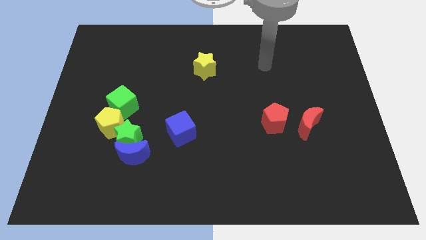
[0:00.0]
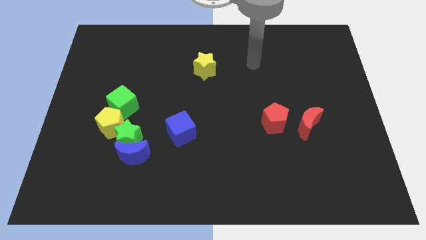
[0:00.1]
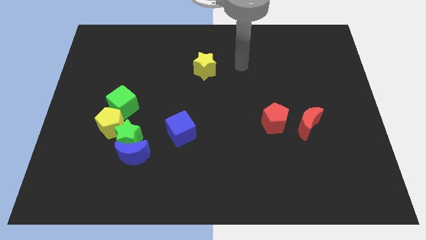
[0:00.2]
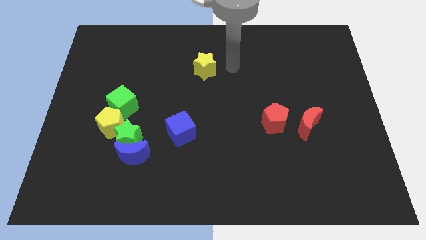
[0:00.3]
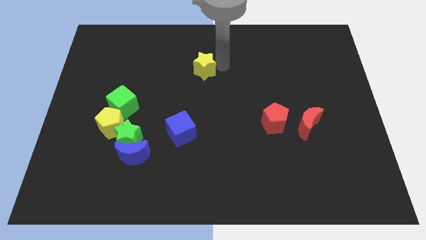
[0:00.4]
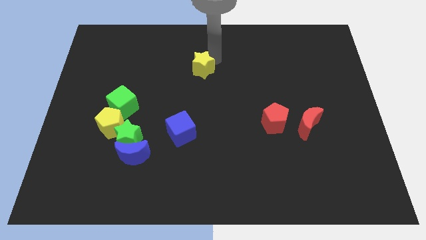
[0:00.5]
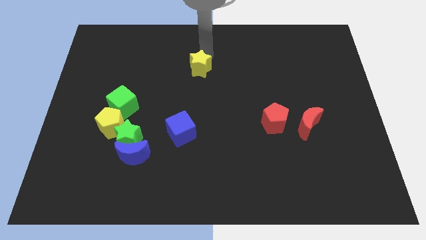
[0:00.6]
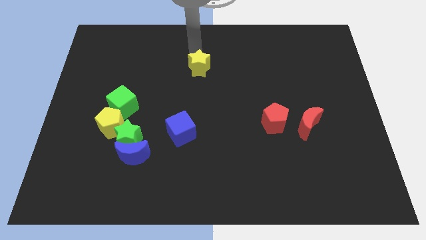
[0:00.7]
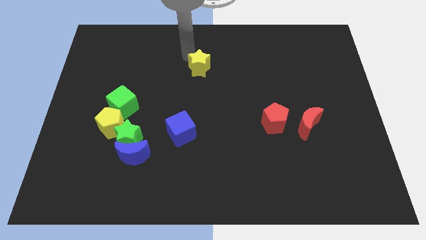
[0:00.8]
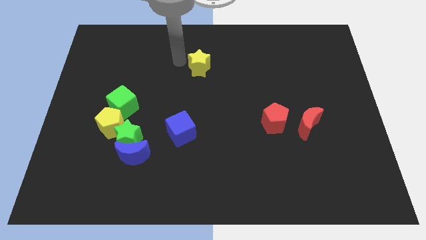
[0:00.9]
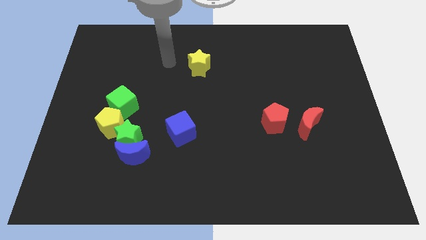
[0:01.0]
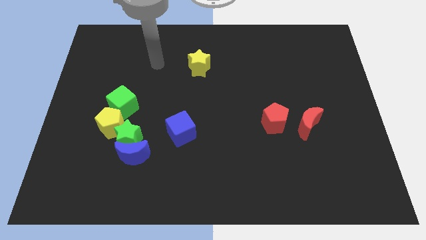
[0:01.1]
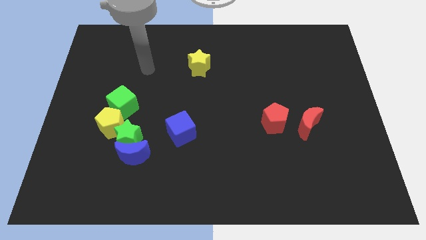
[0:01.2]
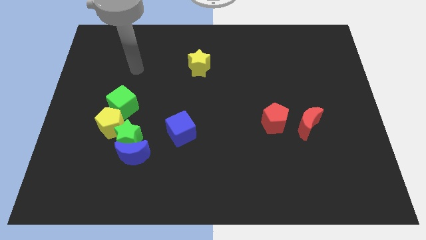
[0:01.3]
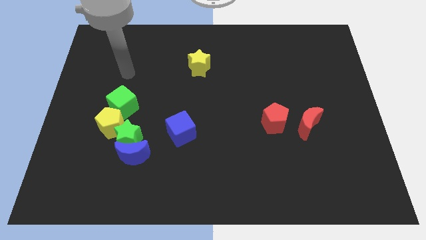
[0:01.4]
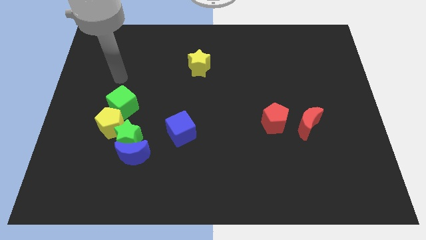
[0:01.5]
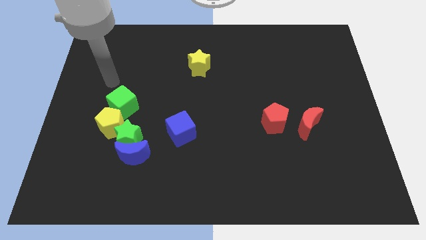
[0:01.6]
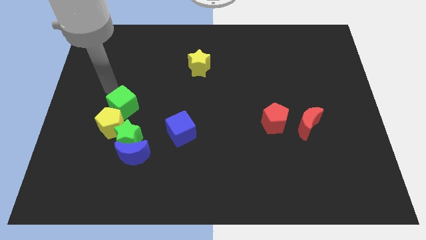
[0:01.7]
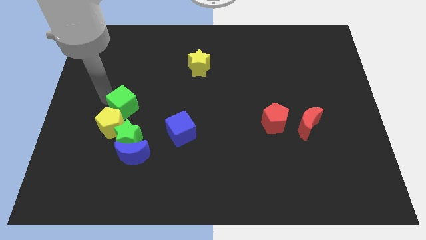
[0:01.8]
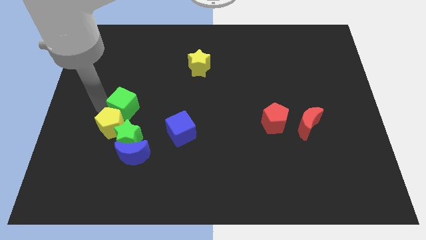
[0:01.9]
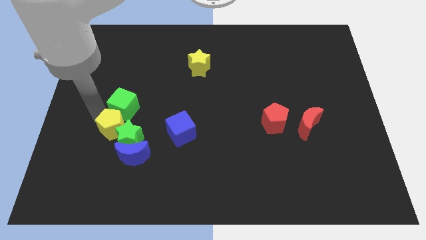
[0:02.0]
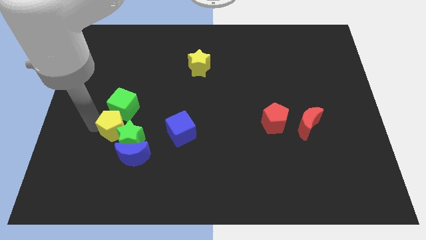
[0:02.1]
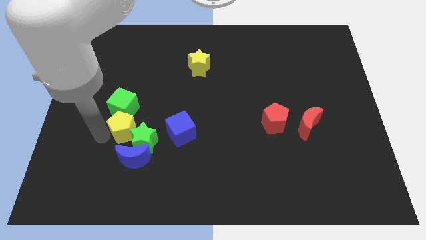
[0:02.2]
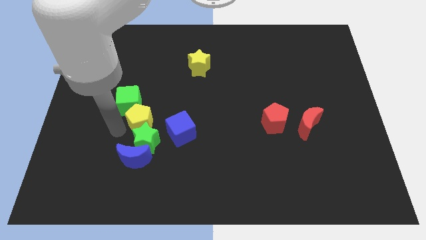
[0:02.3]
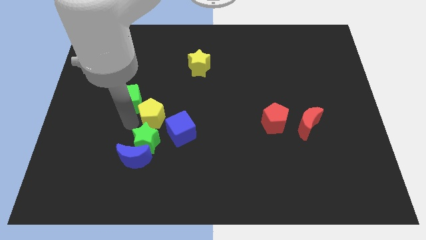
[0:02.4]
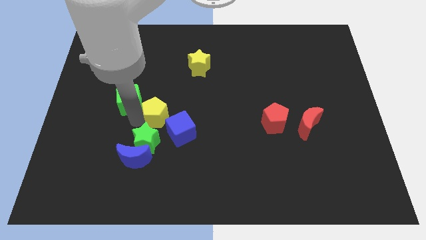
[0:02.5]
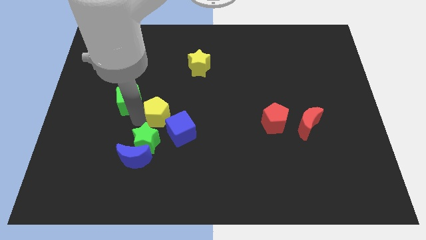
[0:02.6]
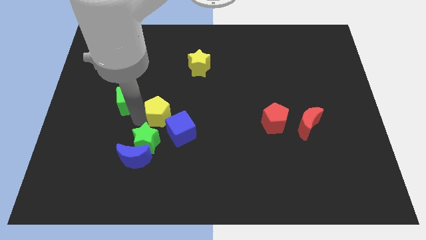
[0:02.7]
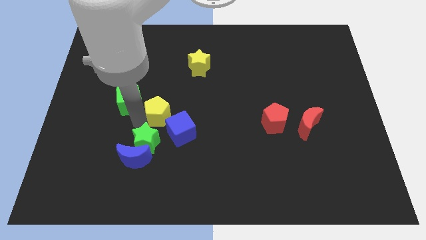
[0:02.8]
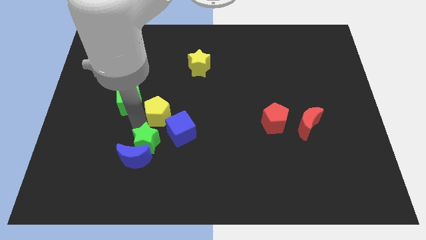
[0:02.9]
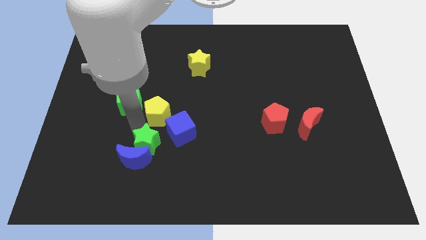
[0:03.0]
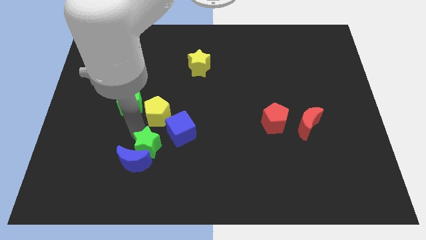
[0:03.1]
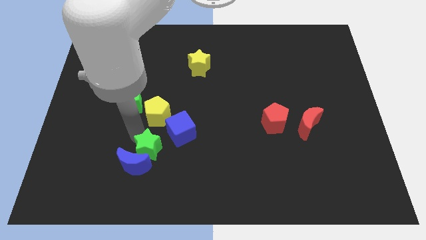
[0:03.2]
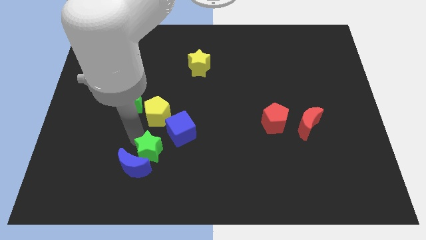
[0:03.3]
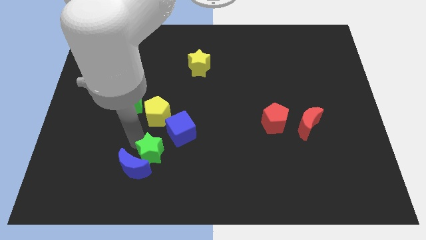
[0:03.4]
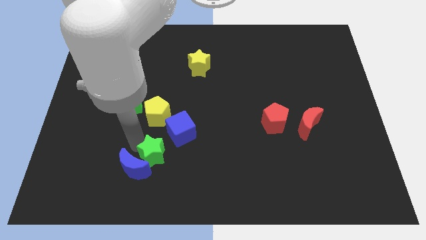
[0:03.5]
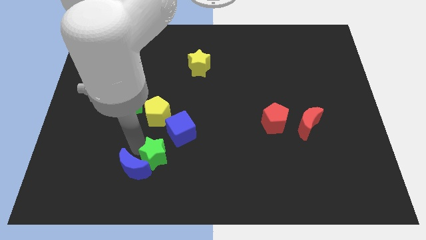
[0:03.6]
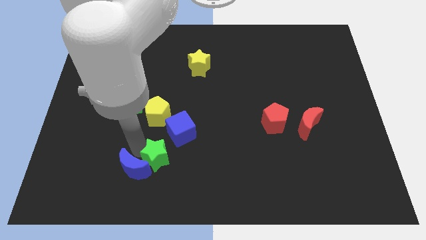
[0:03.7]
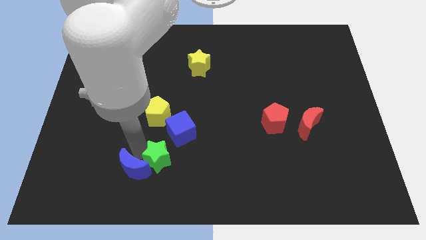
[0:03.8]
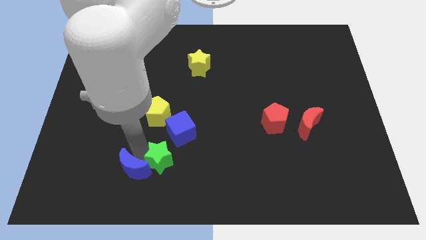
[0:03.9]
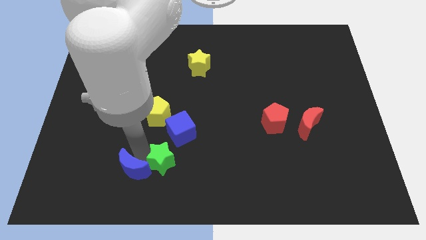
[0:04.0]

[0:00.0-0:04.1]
move the green star away from the clump

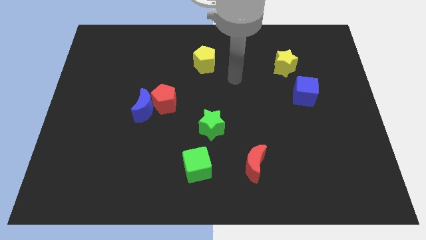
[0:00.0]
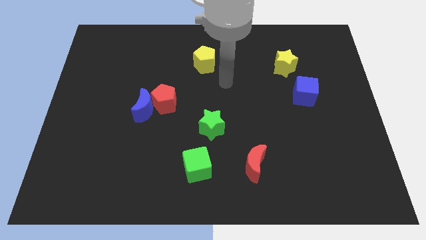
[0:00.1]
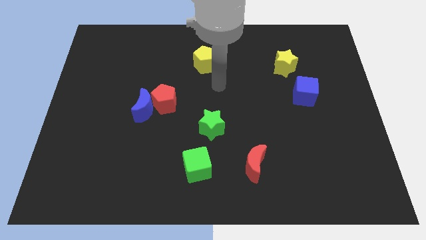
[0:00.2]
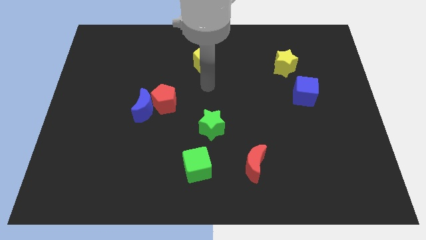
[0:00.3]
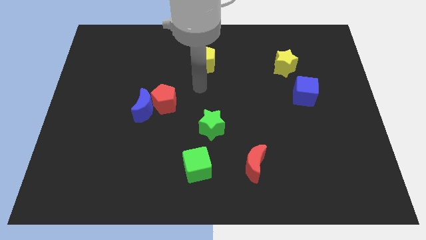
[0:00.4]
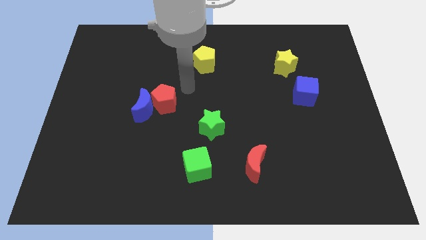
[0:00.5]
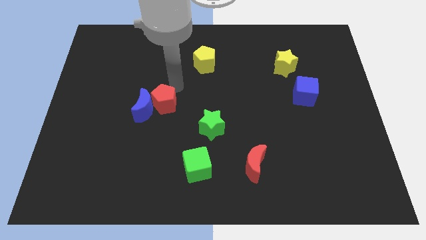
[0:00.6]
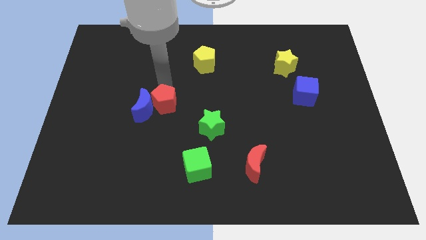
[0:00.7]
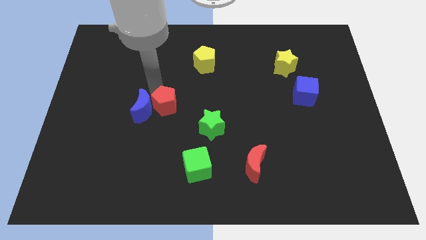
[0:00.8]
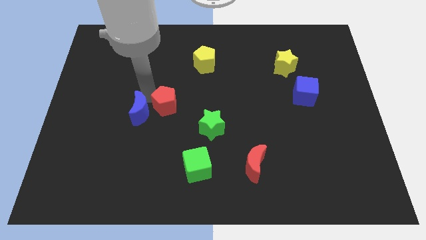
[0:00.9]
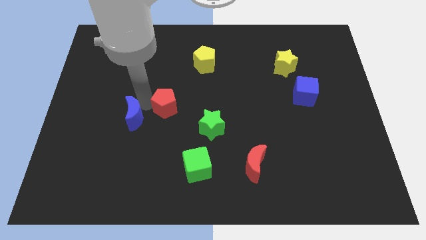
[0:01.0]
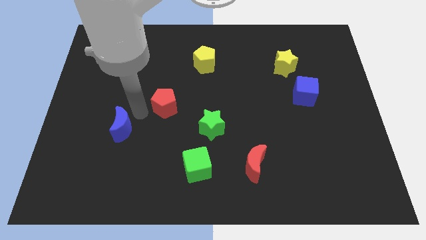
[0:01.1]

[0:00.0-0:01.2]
move the red pentagon away from the blue moon

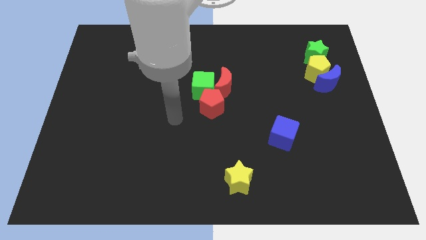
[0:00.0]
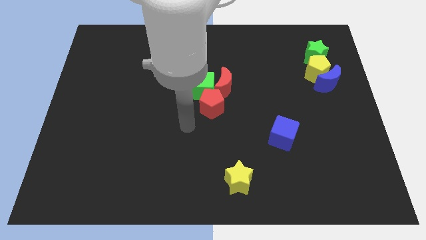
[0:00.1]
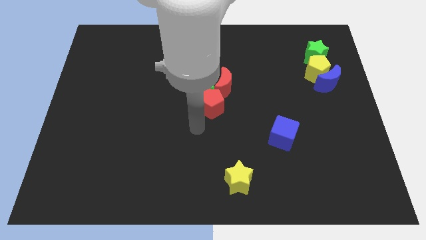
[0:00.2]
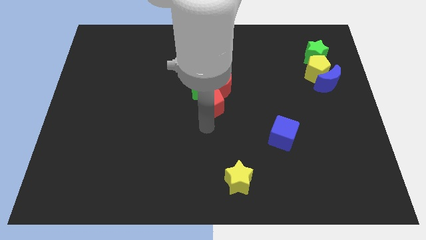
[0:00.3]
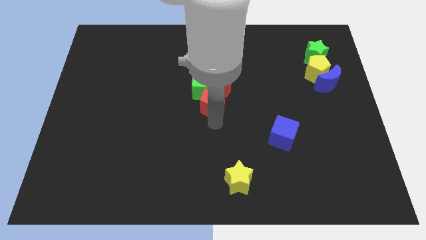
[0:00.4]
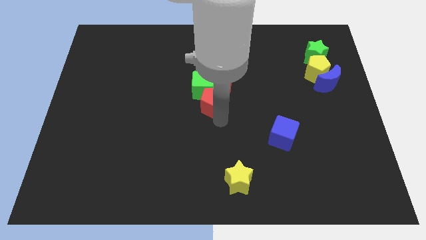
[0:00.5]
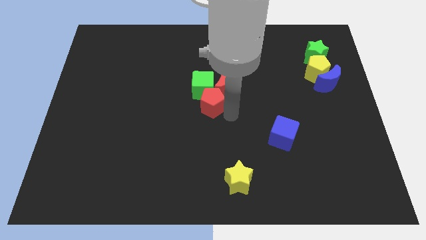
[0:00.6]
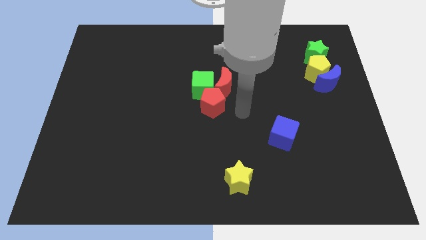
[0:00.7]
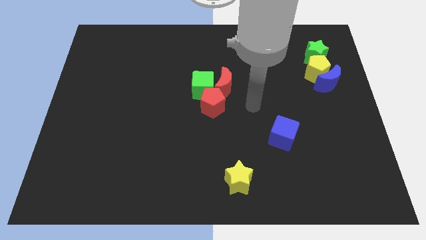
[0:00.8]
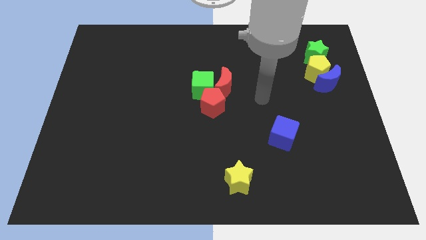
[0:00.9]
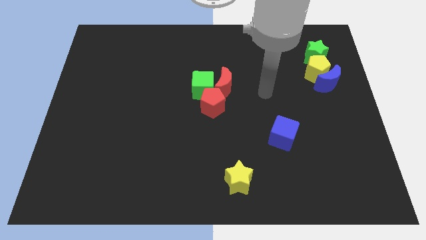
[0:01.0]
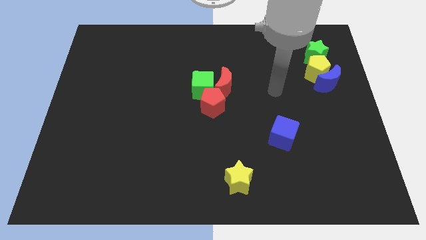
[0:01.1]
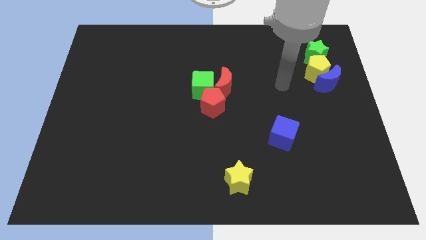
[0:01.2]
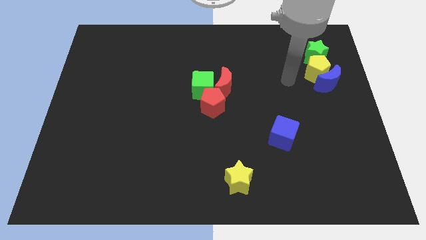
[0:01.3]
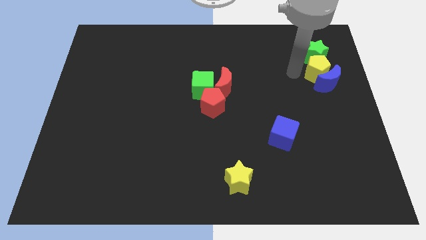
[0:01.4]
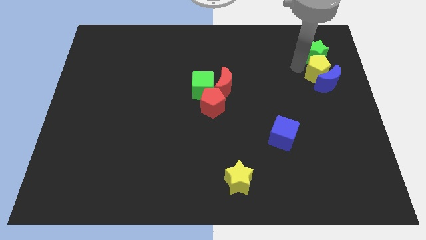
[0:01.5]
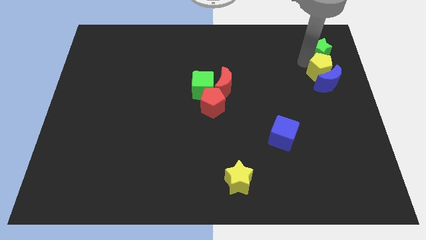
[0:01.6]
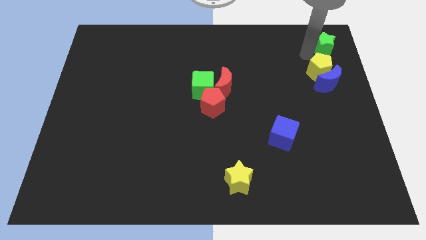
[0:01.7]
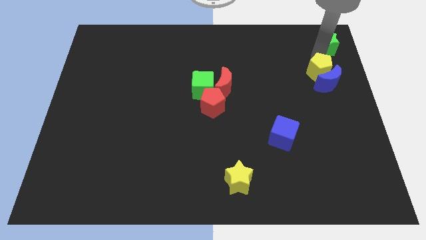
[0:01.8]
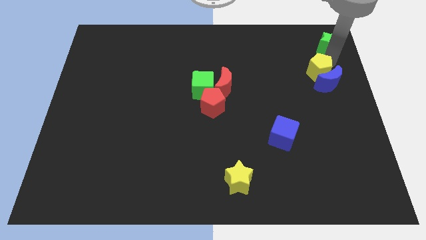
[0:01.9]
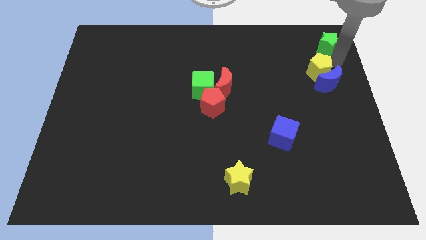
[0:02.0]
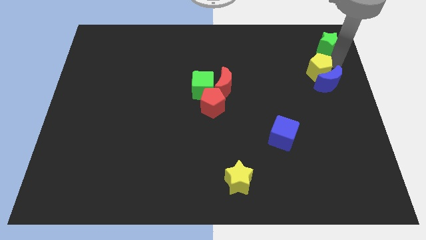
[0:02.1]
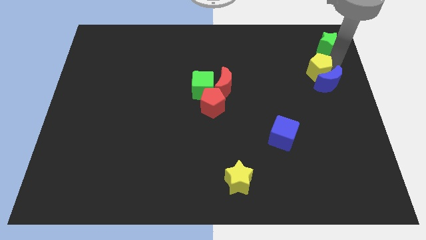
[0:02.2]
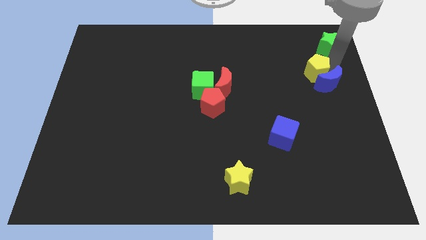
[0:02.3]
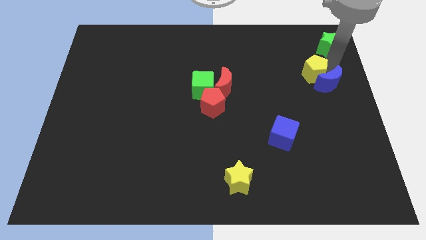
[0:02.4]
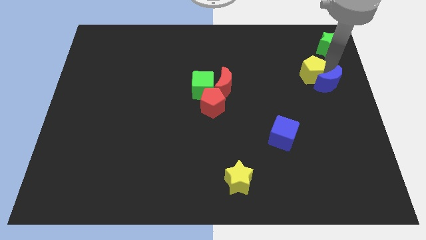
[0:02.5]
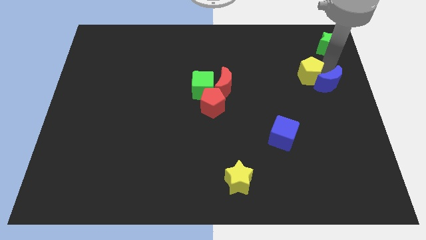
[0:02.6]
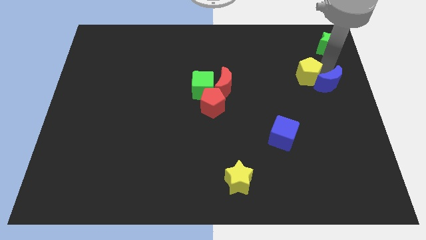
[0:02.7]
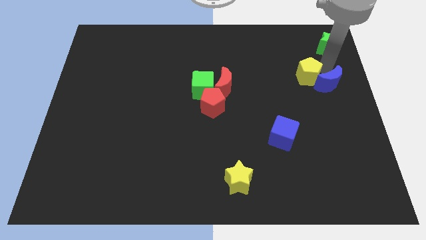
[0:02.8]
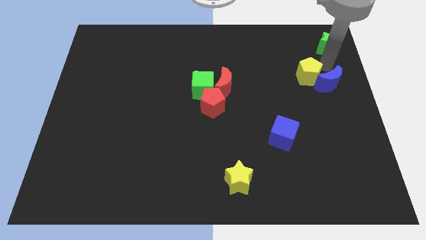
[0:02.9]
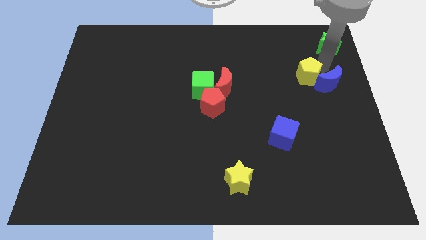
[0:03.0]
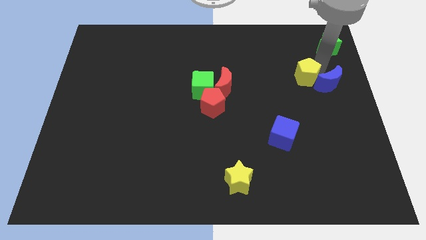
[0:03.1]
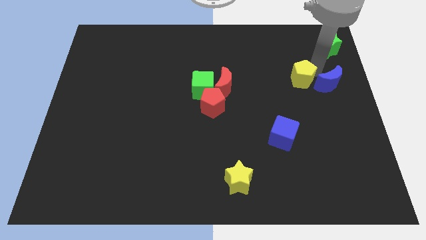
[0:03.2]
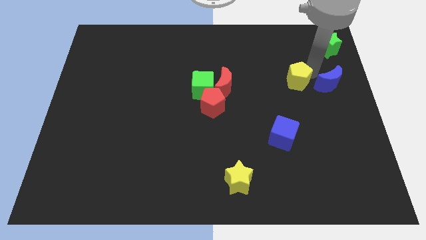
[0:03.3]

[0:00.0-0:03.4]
pull the yellow pentagon apart from the blue moon and green star

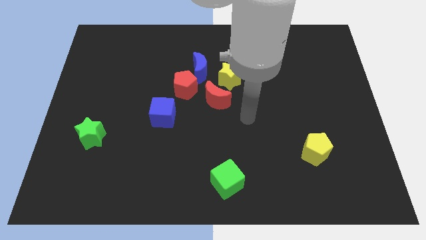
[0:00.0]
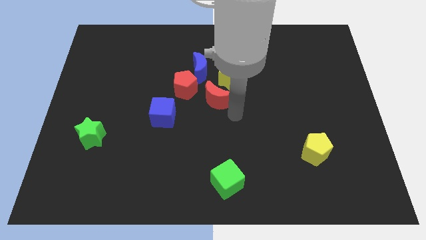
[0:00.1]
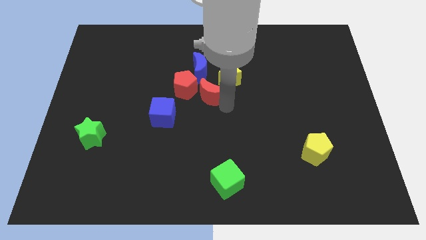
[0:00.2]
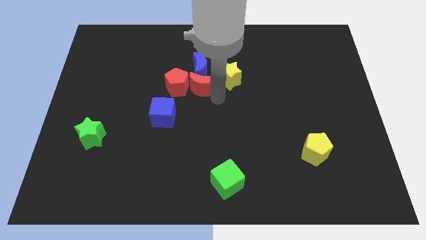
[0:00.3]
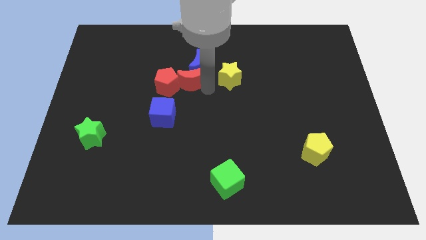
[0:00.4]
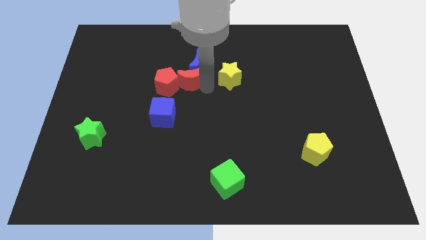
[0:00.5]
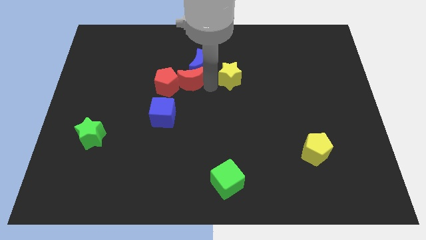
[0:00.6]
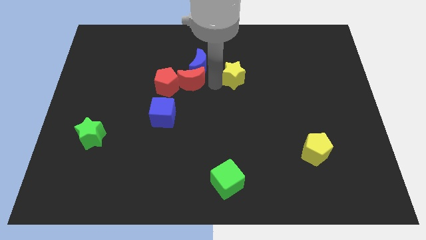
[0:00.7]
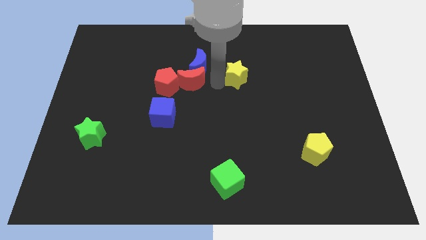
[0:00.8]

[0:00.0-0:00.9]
pull the yellow star apart from the blue moon and red moon
